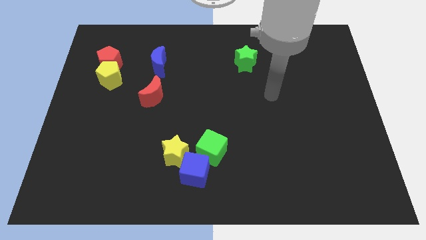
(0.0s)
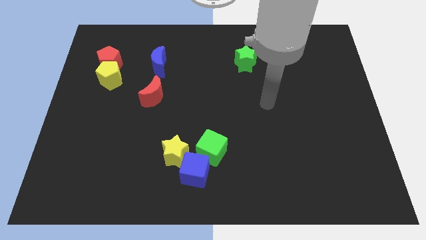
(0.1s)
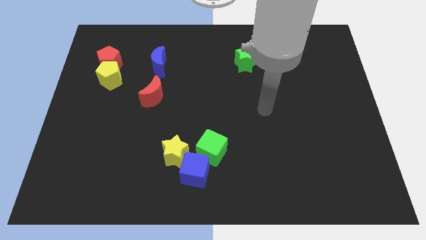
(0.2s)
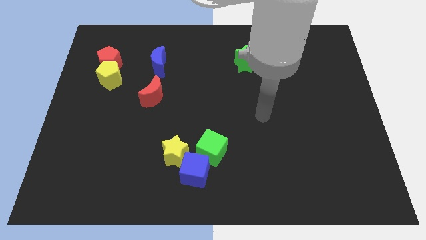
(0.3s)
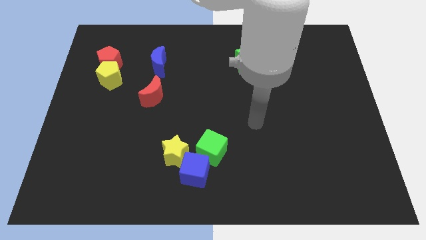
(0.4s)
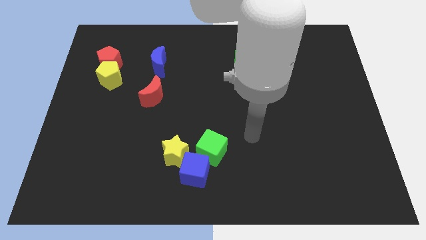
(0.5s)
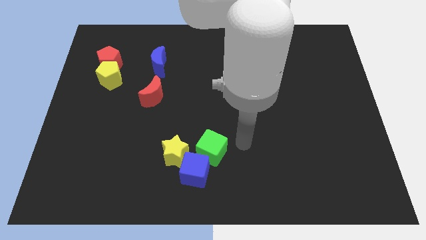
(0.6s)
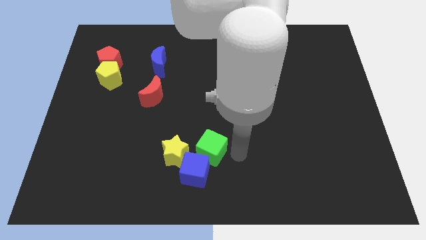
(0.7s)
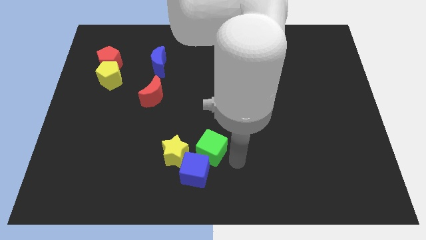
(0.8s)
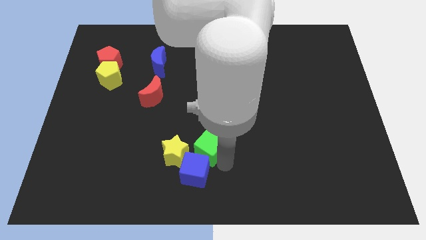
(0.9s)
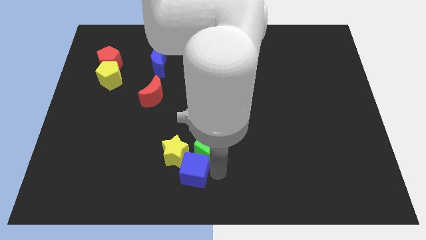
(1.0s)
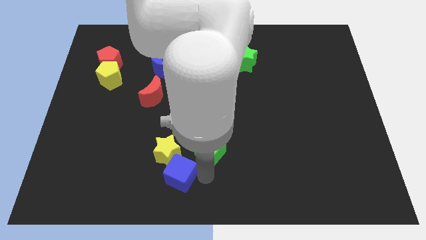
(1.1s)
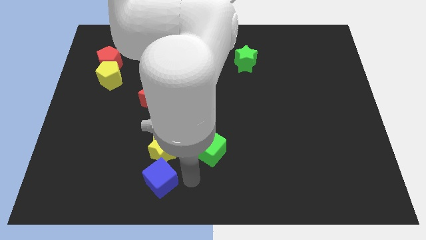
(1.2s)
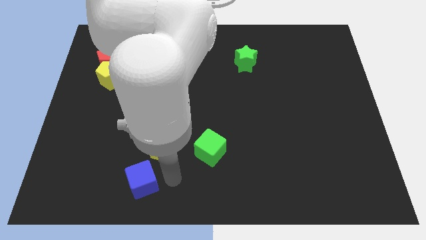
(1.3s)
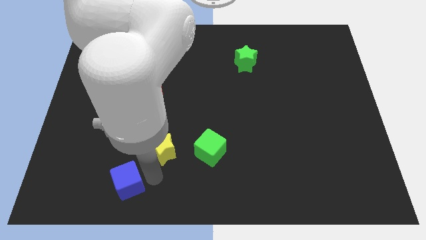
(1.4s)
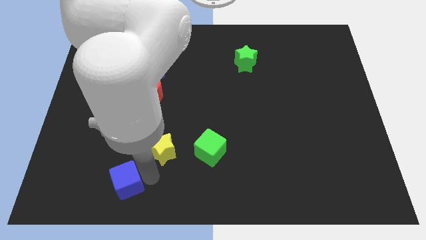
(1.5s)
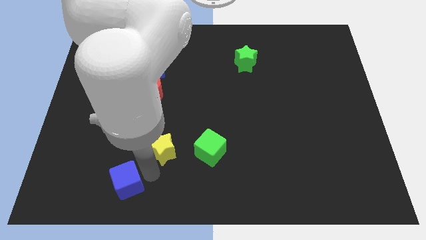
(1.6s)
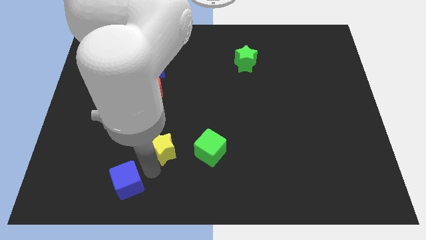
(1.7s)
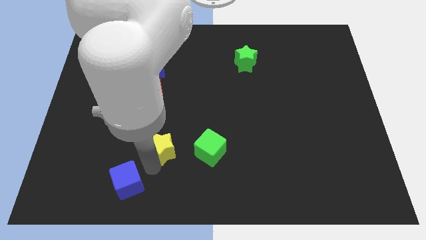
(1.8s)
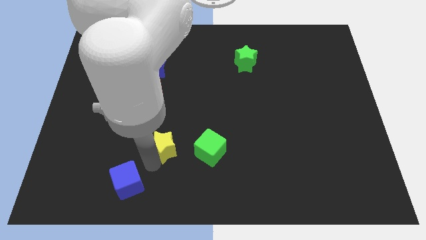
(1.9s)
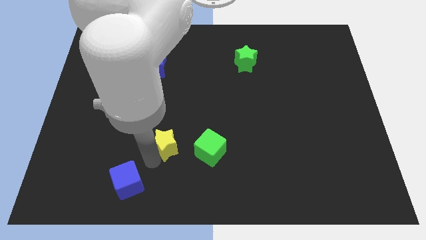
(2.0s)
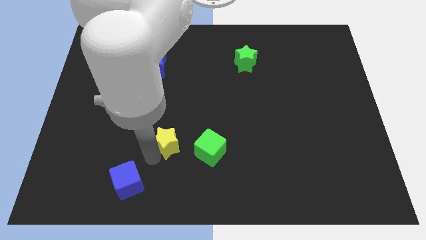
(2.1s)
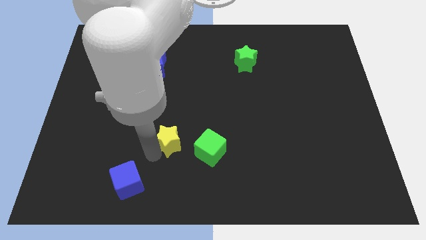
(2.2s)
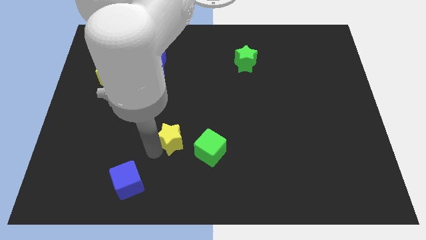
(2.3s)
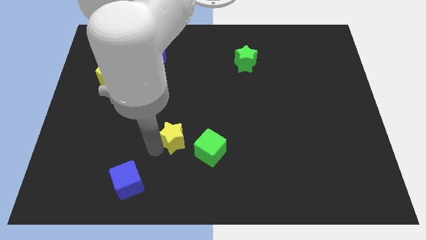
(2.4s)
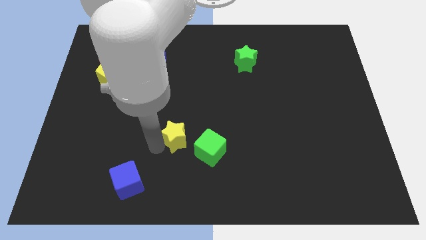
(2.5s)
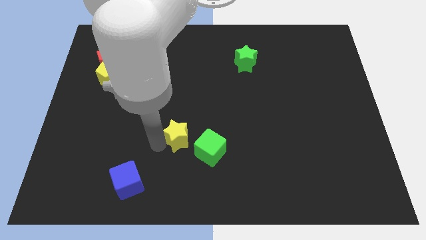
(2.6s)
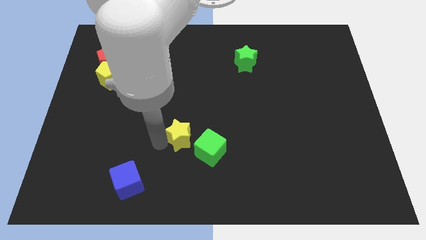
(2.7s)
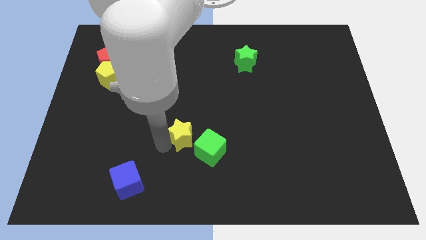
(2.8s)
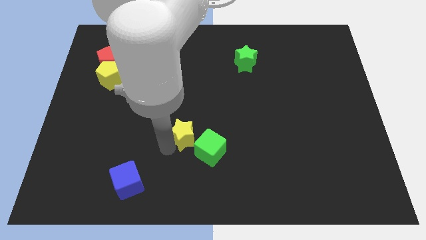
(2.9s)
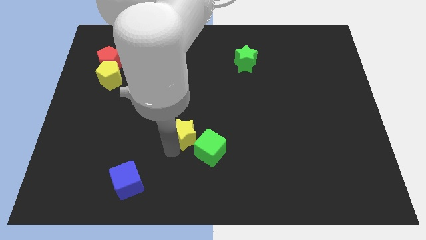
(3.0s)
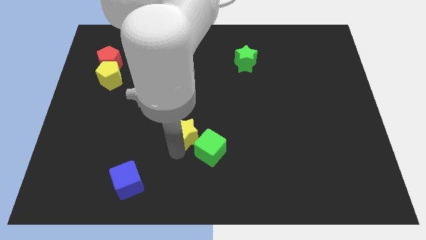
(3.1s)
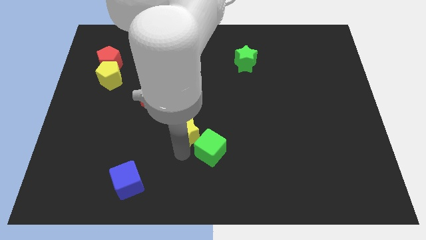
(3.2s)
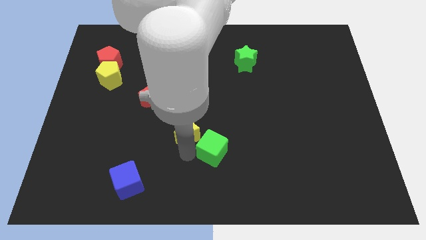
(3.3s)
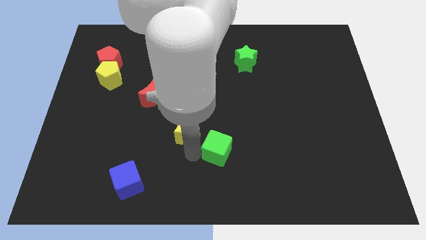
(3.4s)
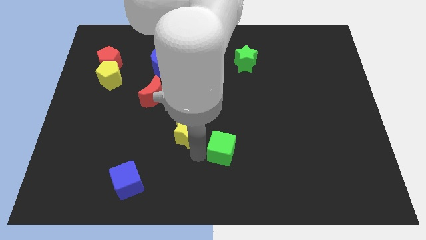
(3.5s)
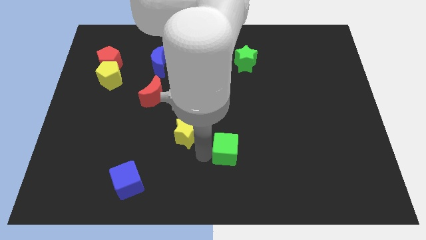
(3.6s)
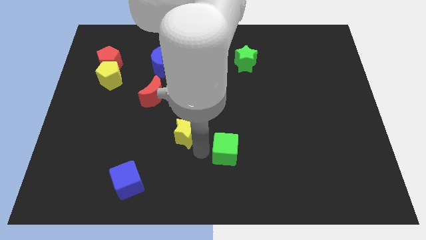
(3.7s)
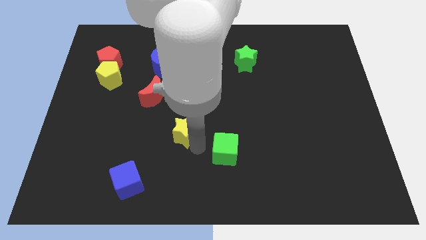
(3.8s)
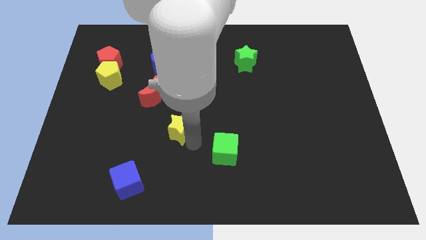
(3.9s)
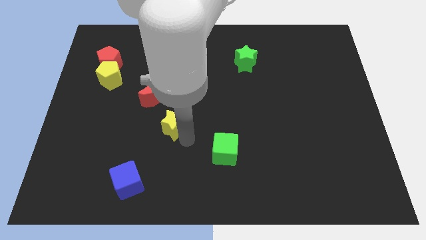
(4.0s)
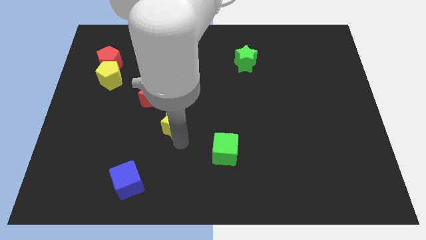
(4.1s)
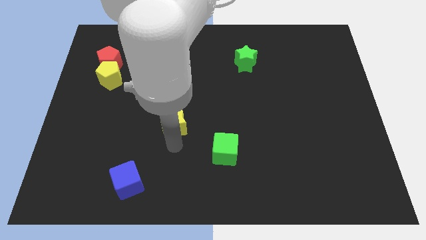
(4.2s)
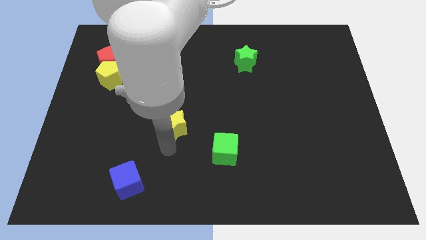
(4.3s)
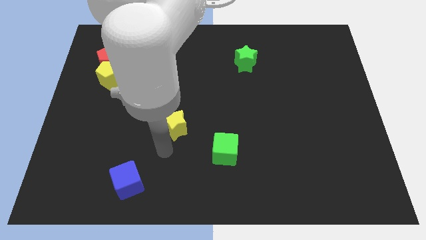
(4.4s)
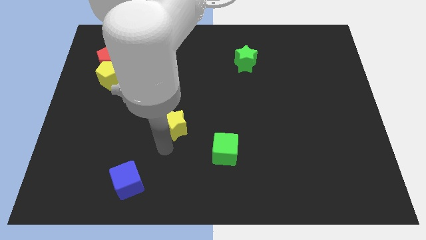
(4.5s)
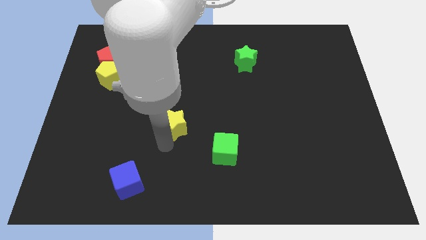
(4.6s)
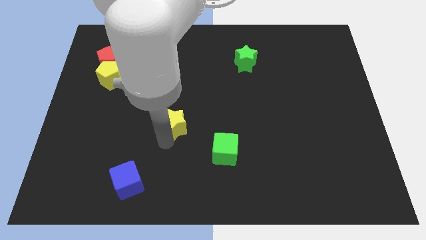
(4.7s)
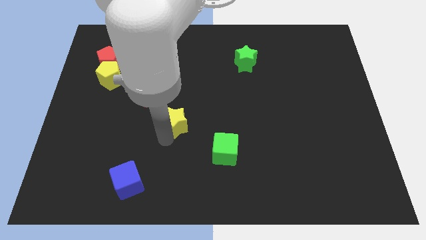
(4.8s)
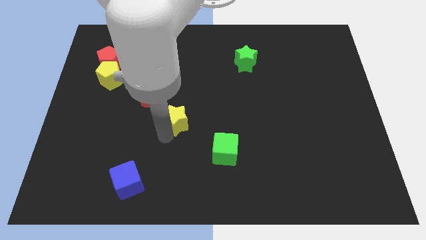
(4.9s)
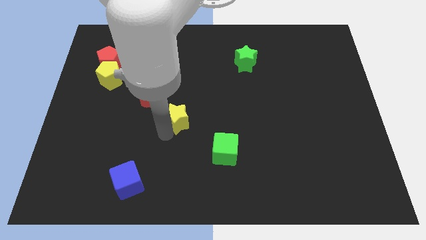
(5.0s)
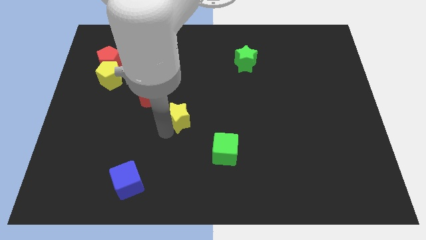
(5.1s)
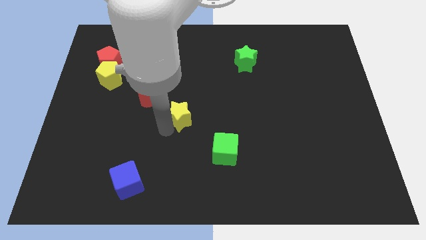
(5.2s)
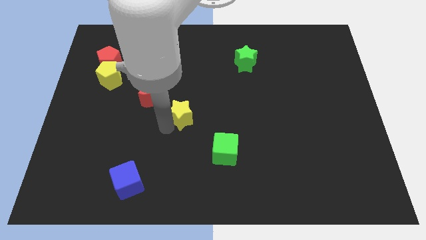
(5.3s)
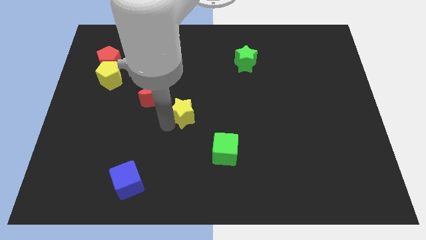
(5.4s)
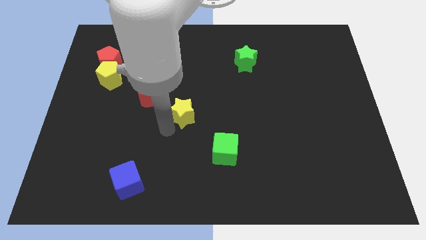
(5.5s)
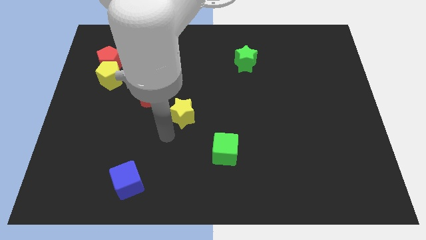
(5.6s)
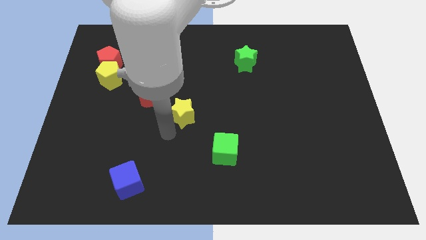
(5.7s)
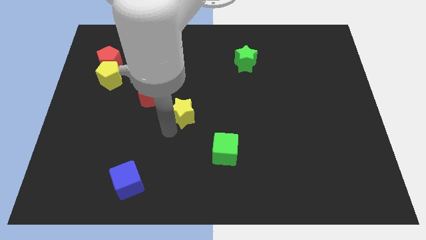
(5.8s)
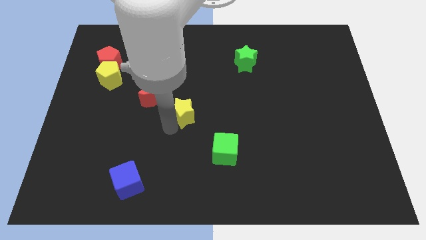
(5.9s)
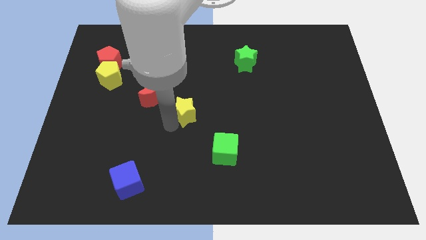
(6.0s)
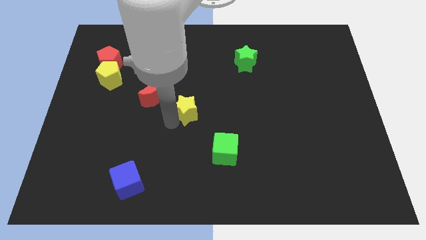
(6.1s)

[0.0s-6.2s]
move the yellow star just right of the red moon

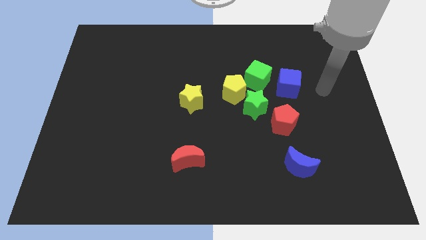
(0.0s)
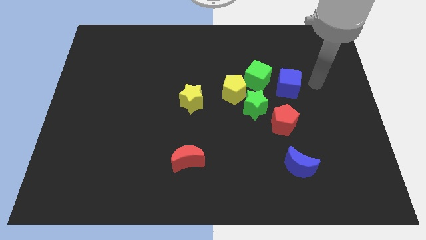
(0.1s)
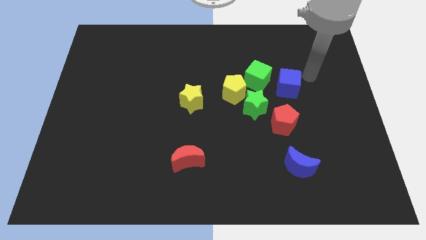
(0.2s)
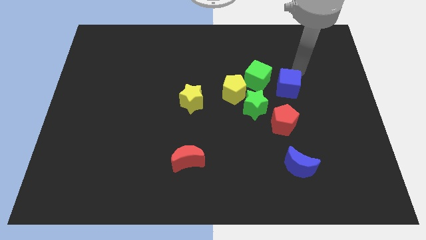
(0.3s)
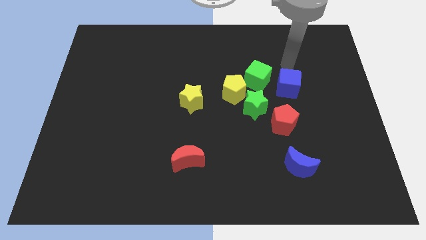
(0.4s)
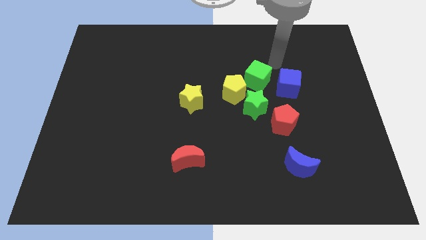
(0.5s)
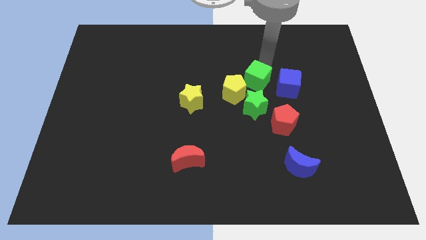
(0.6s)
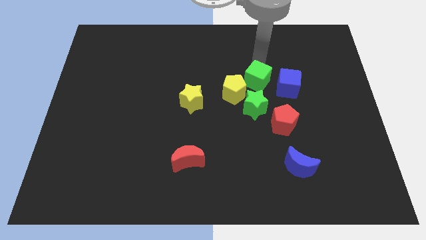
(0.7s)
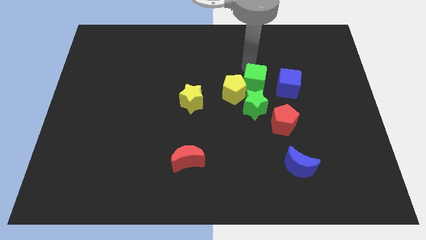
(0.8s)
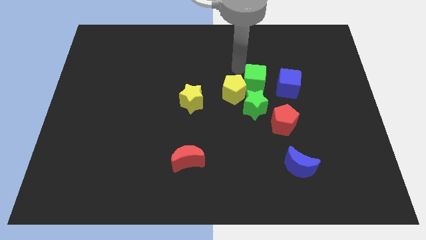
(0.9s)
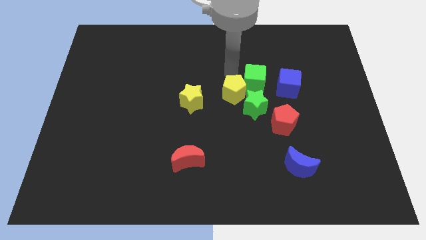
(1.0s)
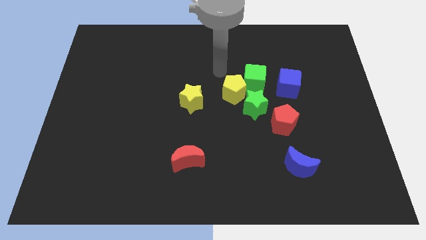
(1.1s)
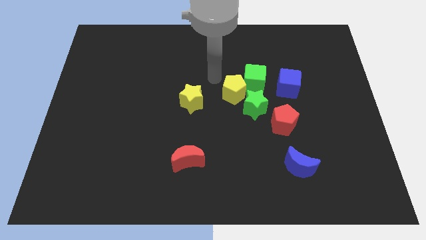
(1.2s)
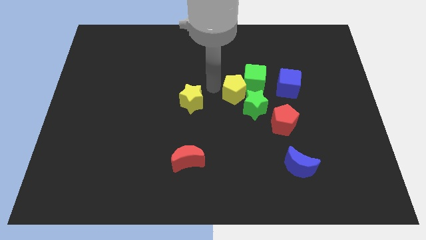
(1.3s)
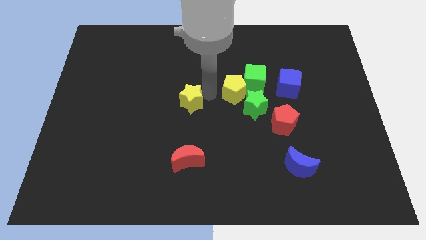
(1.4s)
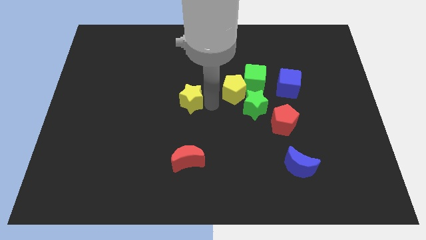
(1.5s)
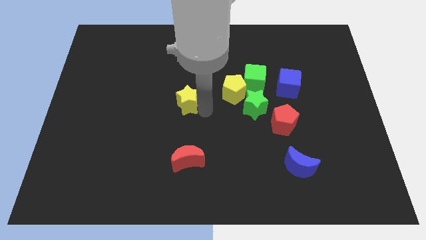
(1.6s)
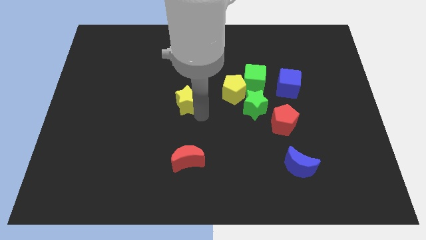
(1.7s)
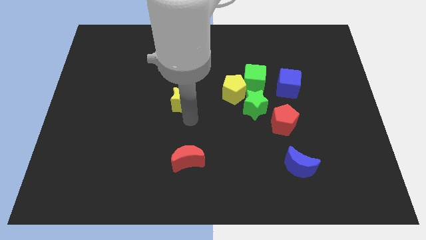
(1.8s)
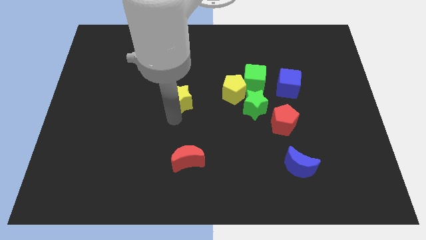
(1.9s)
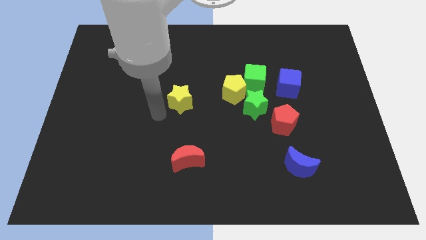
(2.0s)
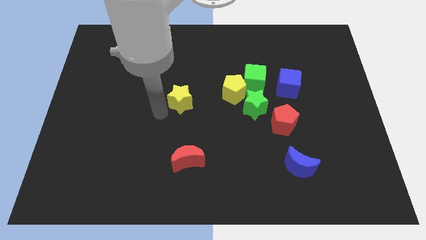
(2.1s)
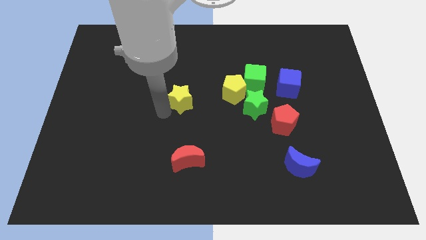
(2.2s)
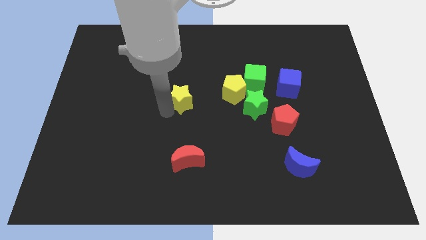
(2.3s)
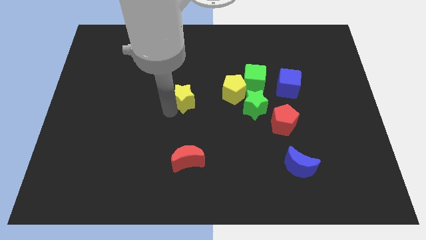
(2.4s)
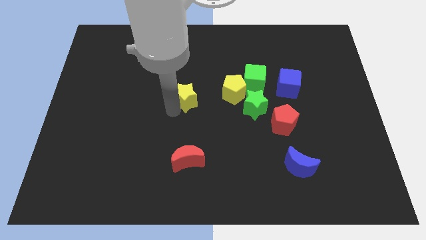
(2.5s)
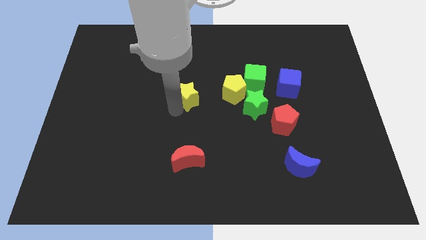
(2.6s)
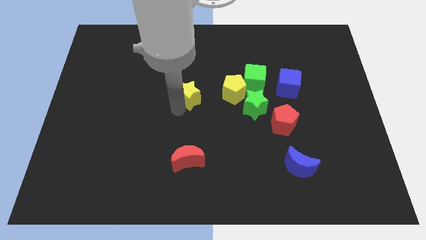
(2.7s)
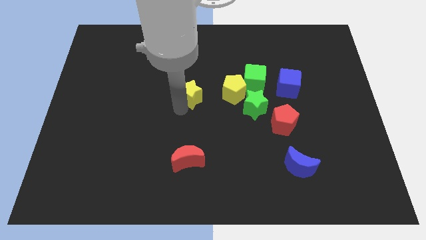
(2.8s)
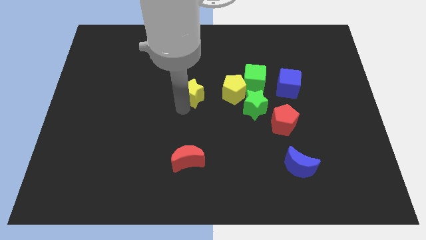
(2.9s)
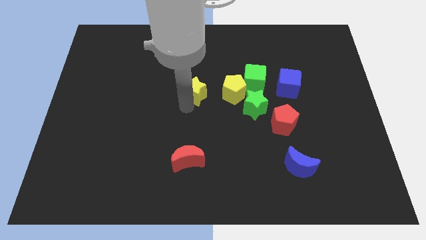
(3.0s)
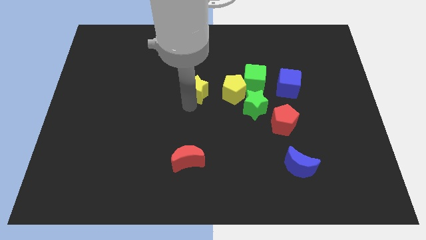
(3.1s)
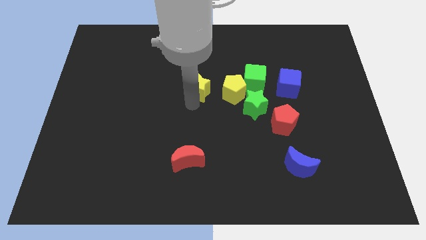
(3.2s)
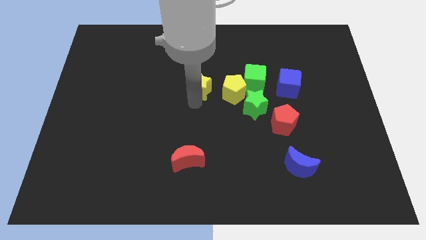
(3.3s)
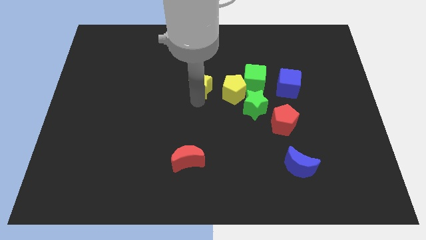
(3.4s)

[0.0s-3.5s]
push the yellow star diagonally up and to the left of the yellow pentagon
